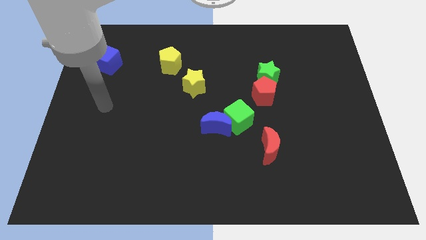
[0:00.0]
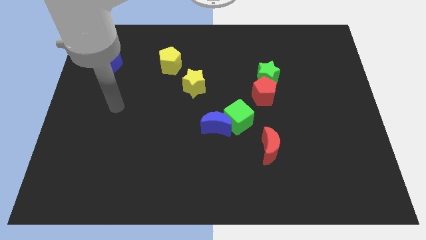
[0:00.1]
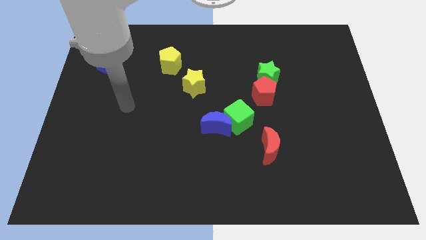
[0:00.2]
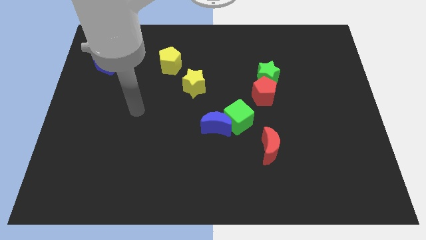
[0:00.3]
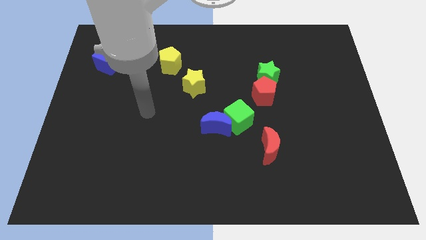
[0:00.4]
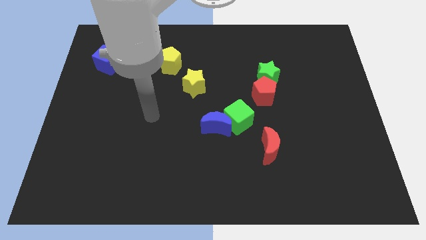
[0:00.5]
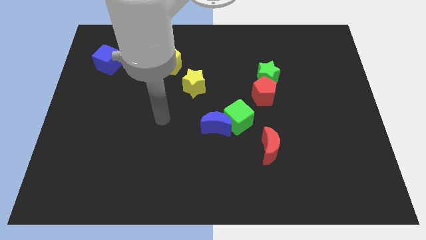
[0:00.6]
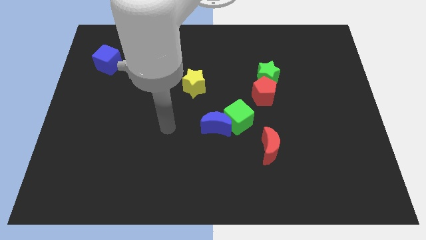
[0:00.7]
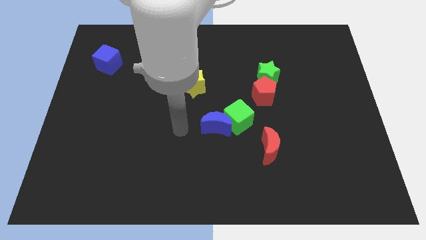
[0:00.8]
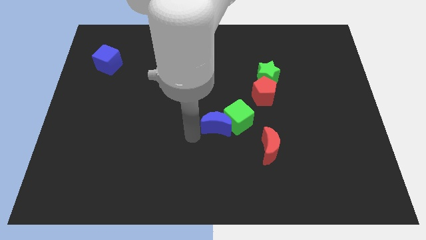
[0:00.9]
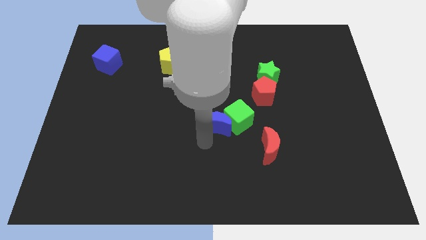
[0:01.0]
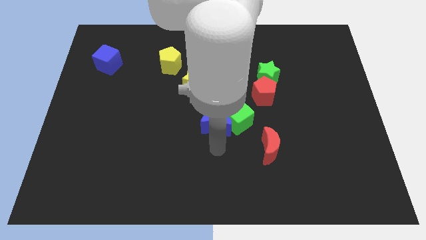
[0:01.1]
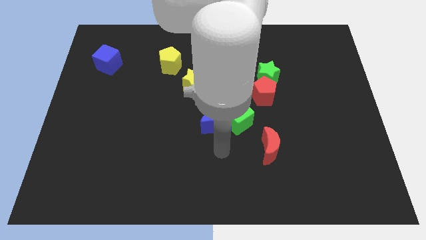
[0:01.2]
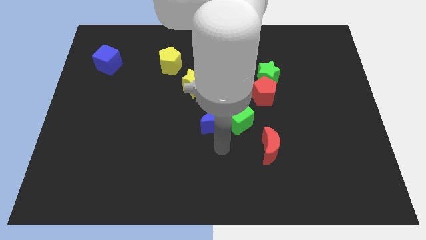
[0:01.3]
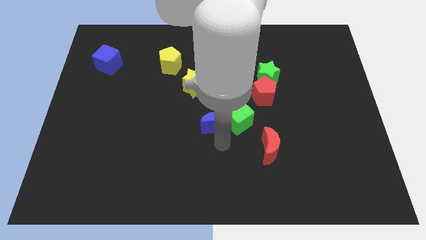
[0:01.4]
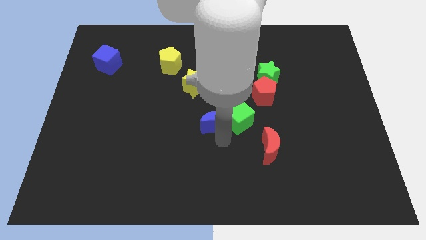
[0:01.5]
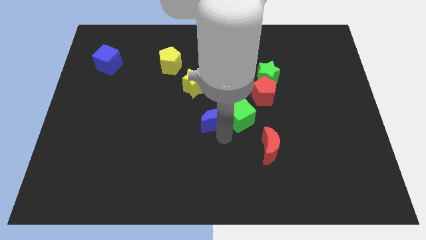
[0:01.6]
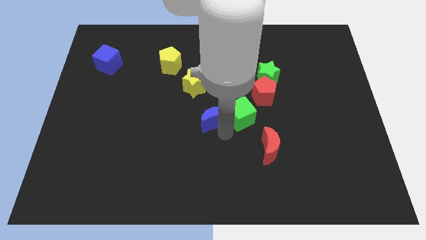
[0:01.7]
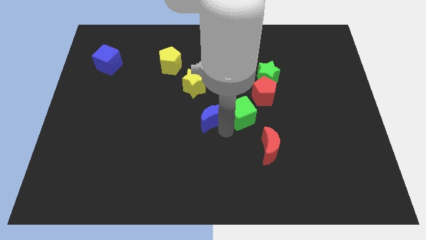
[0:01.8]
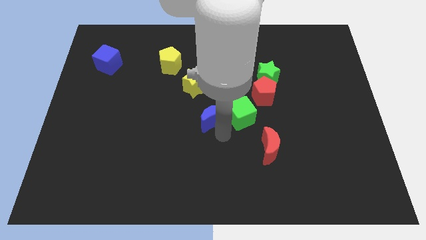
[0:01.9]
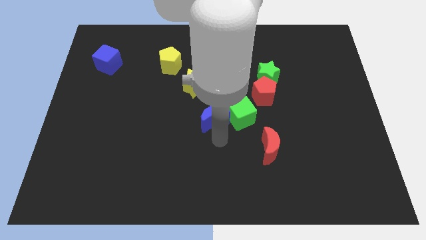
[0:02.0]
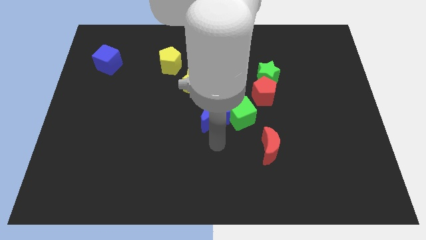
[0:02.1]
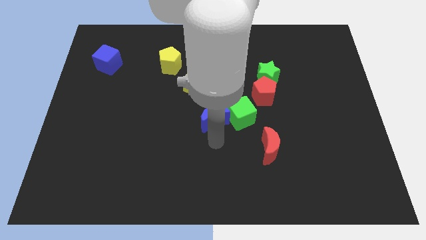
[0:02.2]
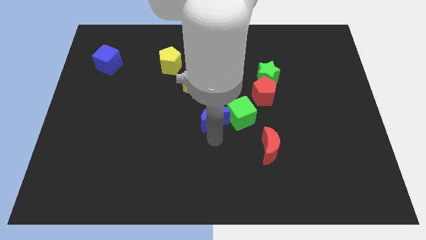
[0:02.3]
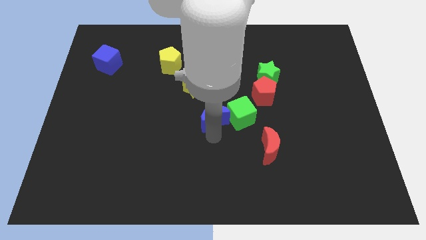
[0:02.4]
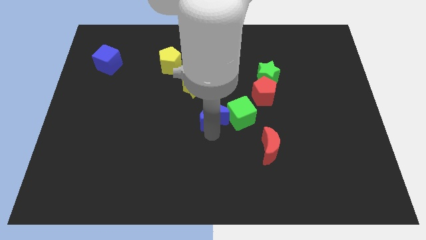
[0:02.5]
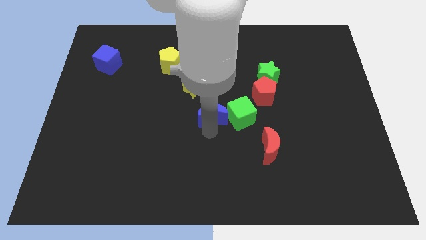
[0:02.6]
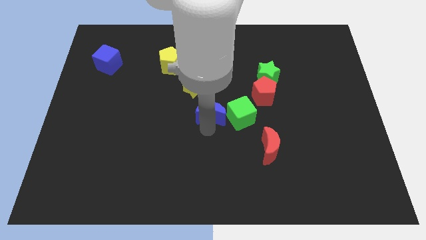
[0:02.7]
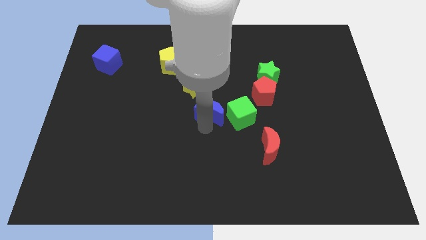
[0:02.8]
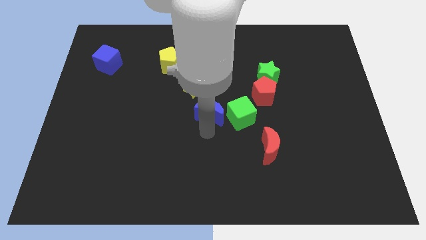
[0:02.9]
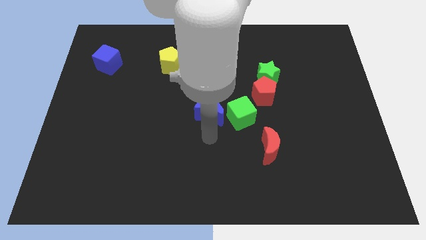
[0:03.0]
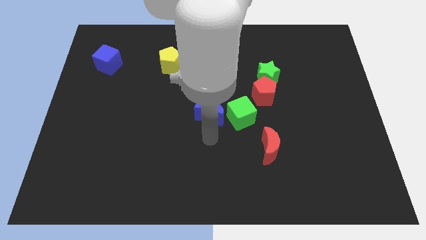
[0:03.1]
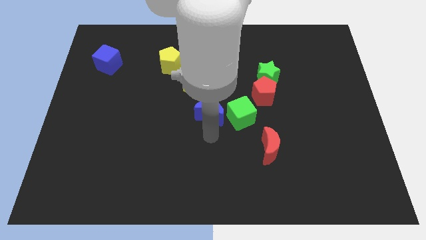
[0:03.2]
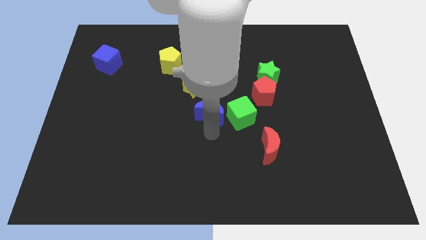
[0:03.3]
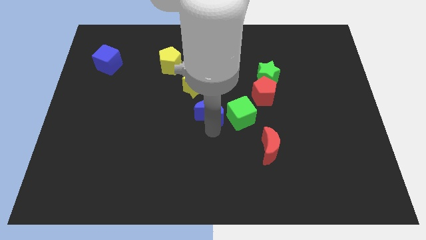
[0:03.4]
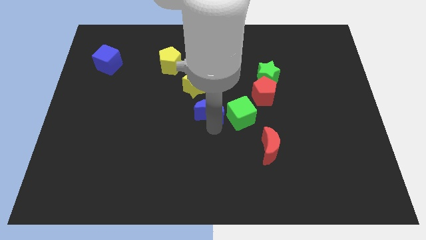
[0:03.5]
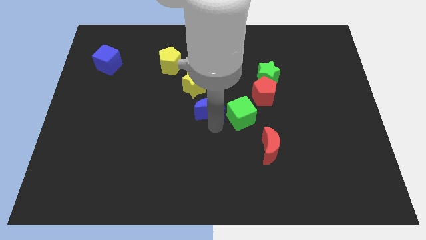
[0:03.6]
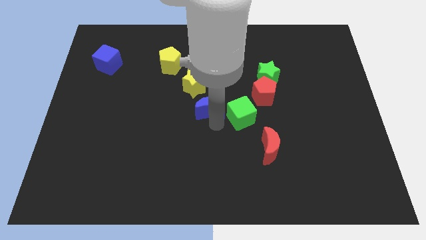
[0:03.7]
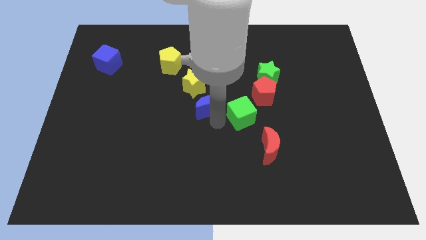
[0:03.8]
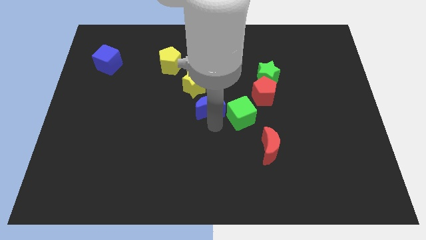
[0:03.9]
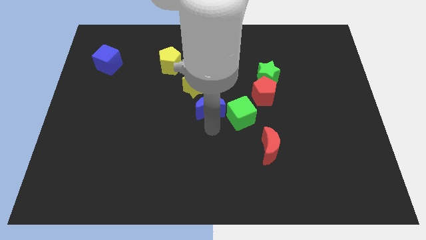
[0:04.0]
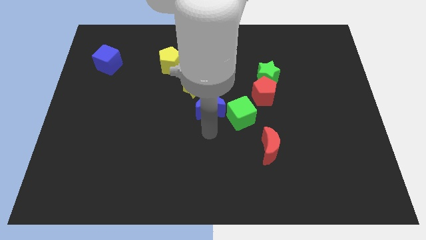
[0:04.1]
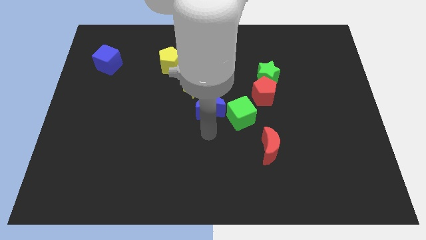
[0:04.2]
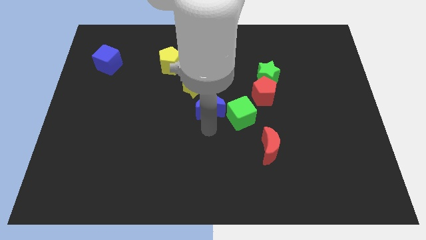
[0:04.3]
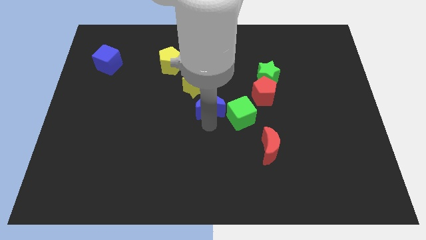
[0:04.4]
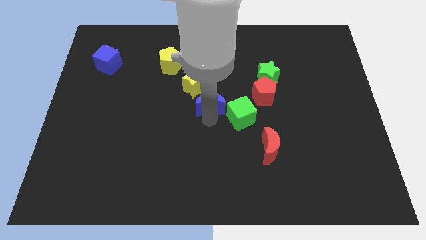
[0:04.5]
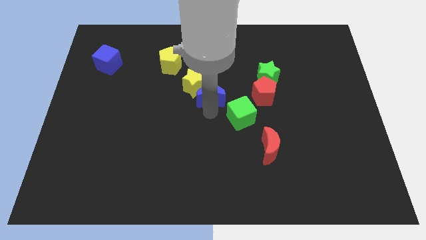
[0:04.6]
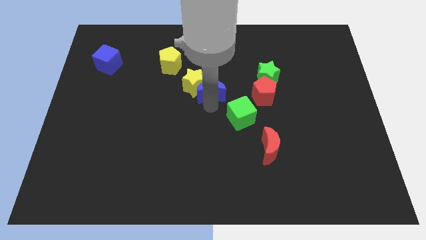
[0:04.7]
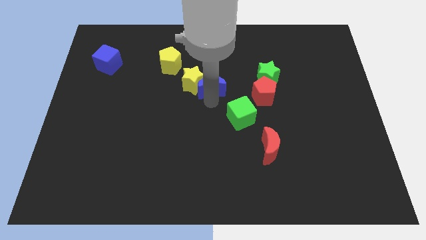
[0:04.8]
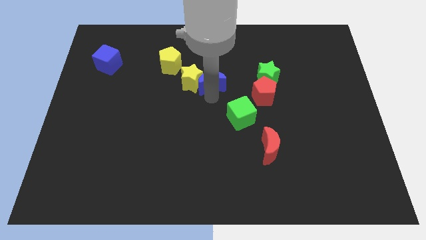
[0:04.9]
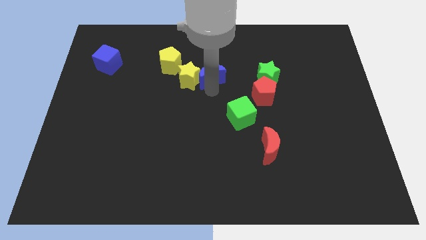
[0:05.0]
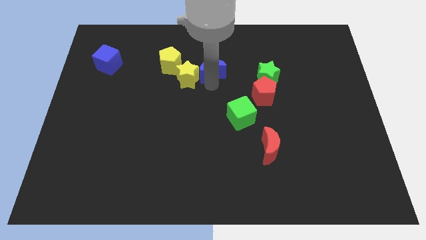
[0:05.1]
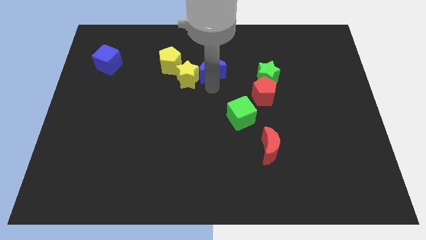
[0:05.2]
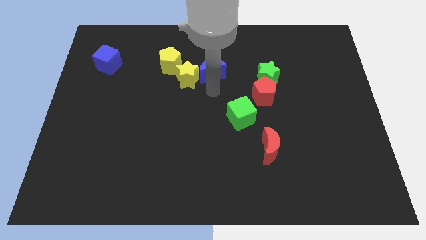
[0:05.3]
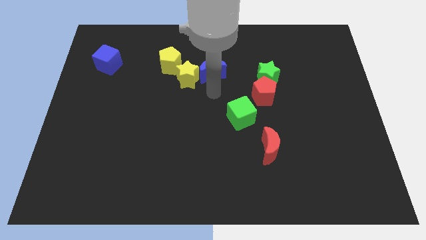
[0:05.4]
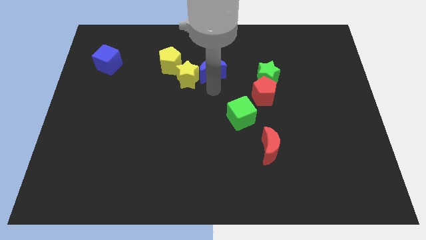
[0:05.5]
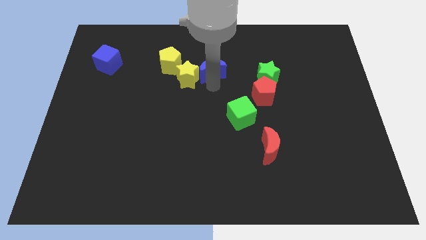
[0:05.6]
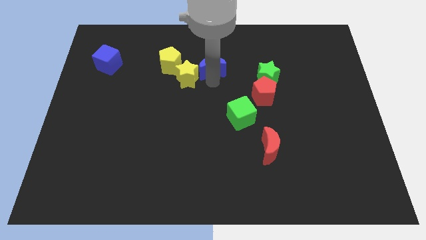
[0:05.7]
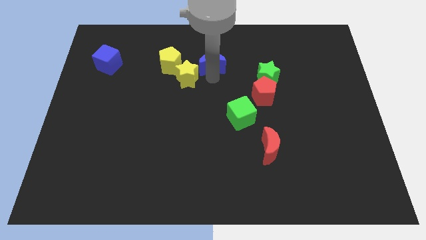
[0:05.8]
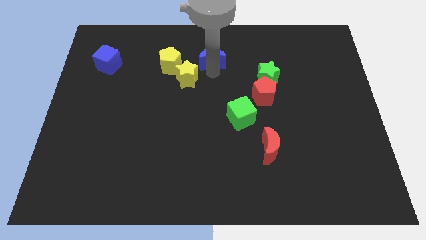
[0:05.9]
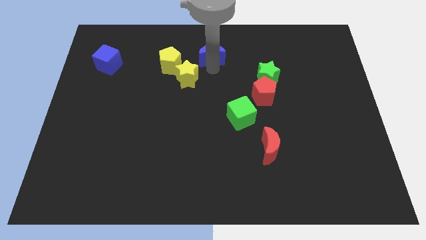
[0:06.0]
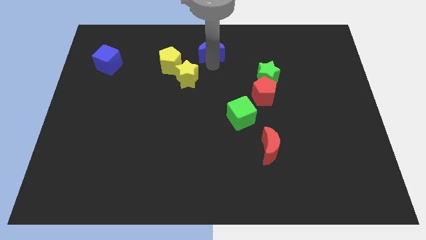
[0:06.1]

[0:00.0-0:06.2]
move the blue moon to the top
